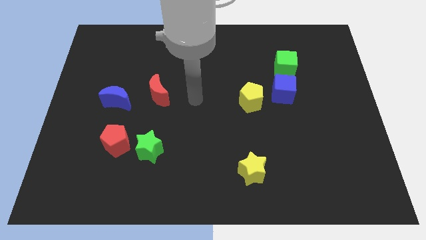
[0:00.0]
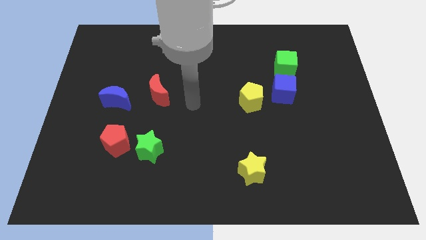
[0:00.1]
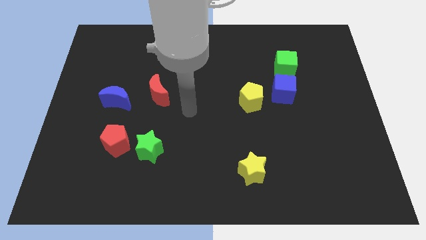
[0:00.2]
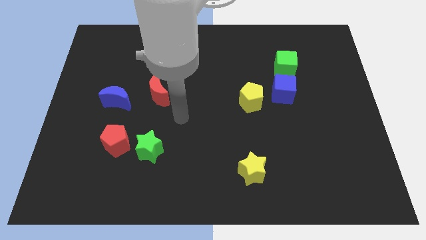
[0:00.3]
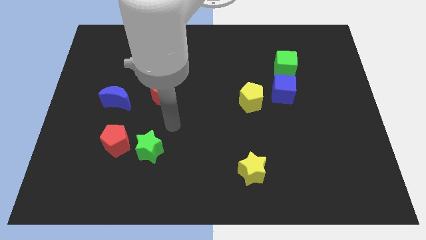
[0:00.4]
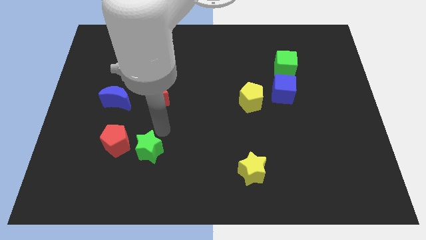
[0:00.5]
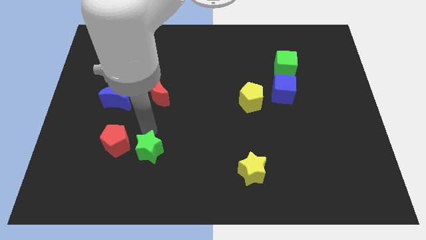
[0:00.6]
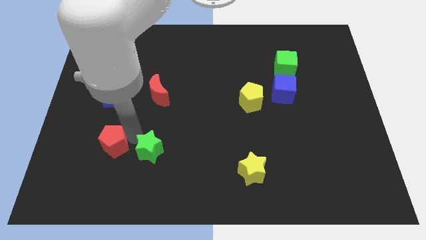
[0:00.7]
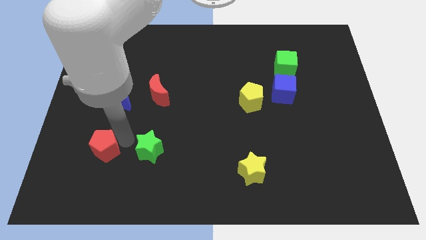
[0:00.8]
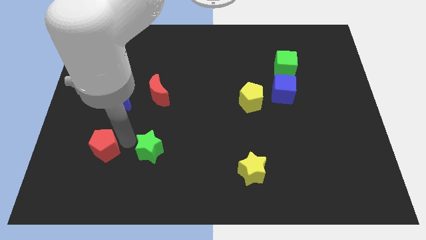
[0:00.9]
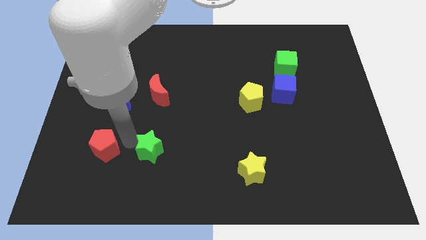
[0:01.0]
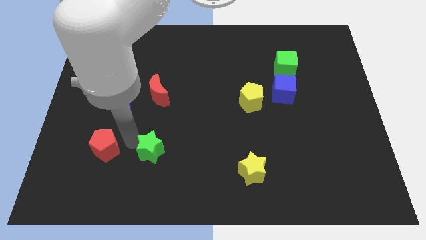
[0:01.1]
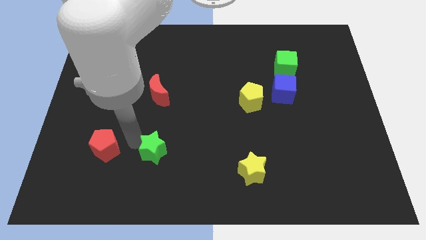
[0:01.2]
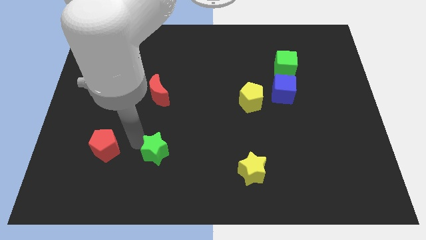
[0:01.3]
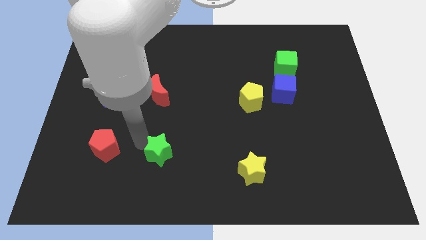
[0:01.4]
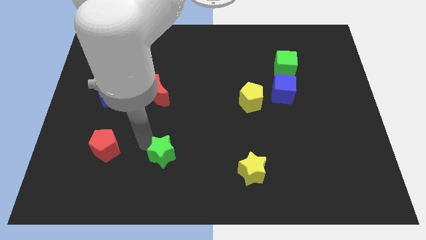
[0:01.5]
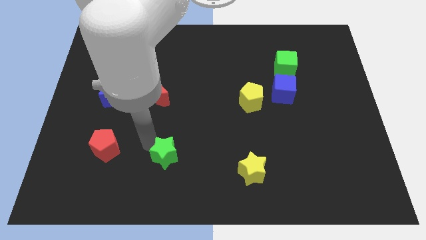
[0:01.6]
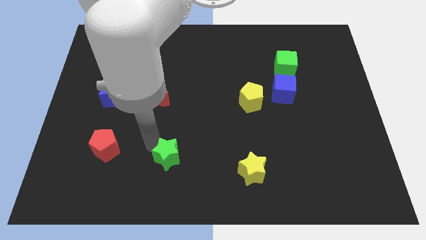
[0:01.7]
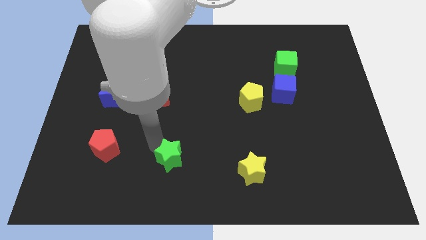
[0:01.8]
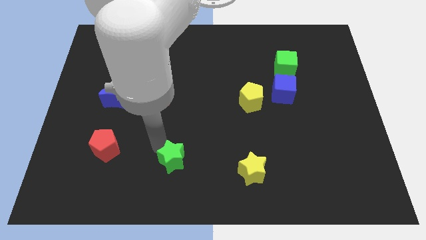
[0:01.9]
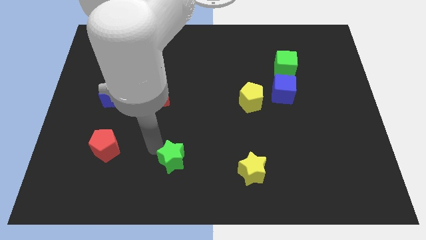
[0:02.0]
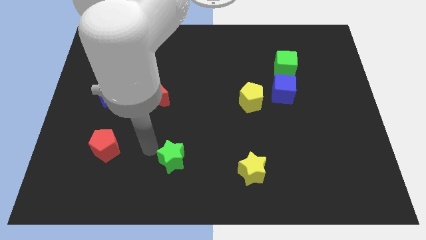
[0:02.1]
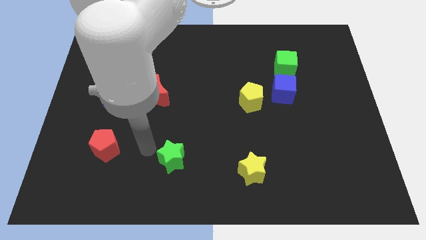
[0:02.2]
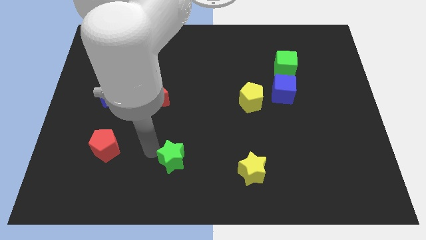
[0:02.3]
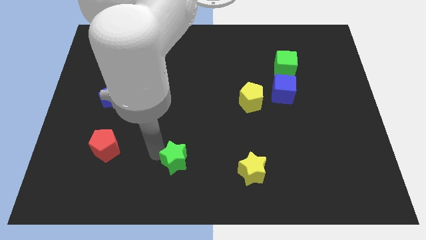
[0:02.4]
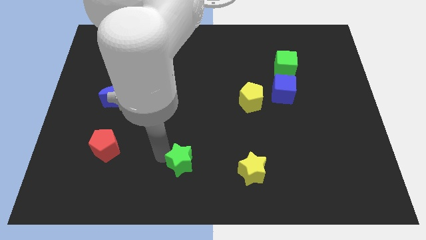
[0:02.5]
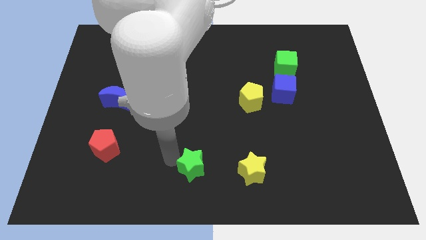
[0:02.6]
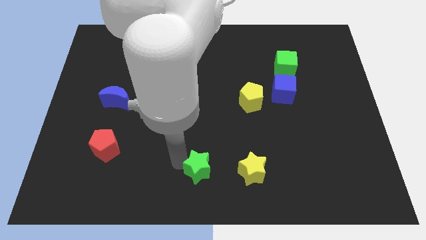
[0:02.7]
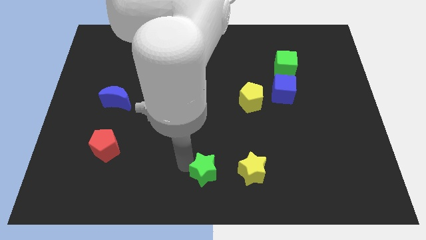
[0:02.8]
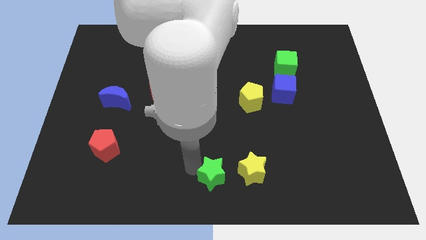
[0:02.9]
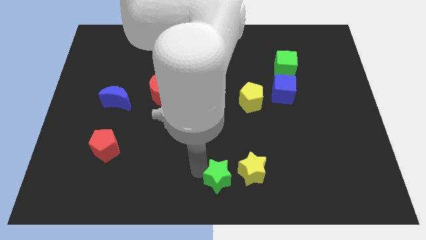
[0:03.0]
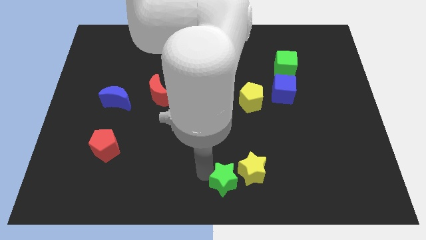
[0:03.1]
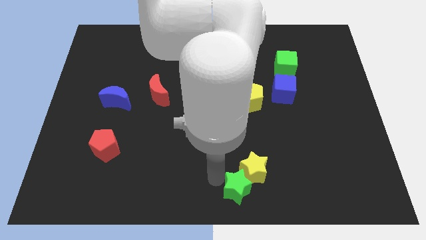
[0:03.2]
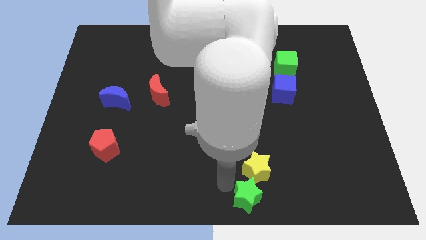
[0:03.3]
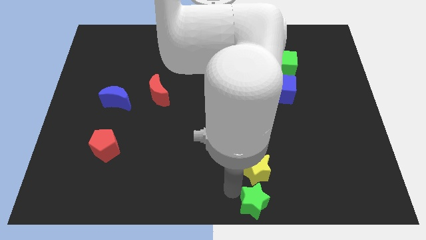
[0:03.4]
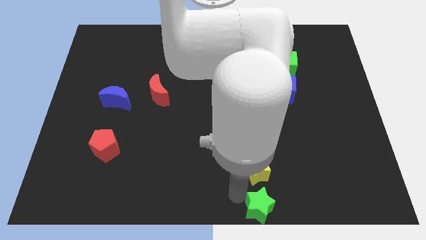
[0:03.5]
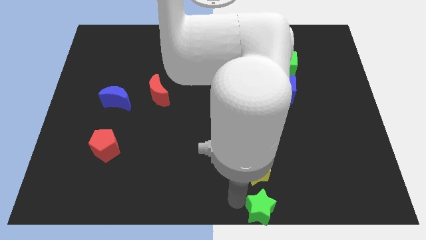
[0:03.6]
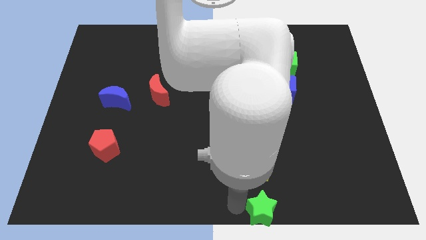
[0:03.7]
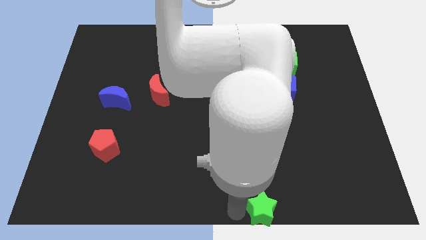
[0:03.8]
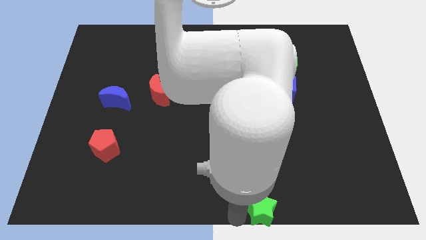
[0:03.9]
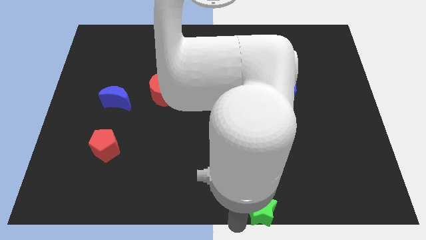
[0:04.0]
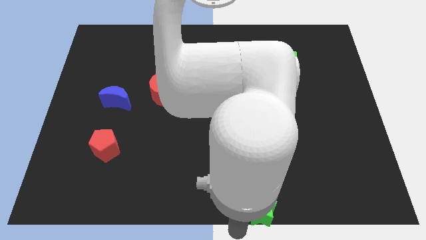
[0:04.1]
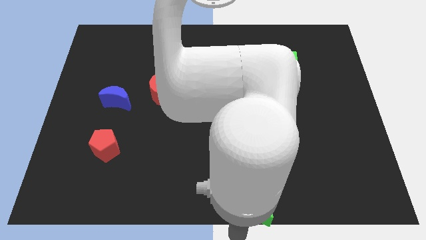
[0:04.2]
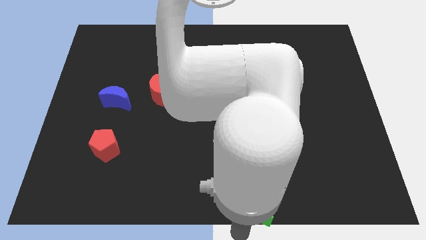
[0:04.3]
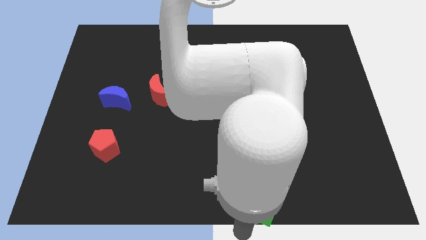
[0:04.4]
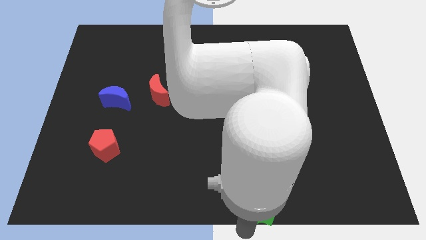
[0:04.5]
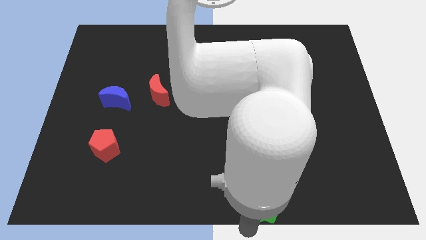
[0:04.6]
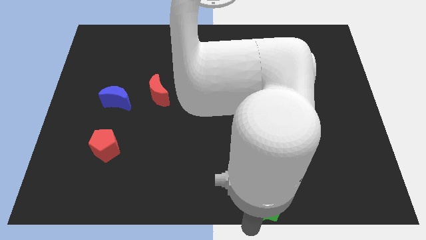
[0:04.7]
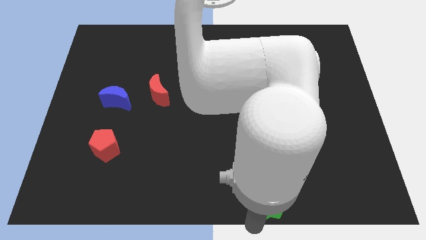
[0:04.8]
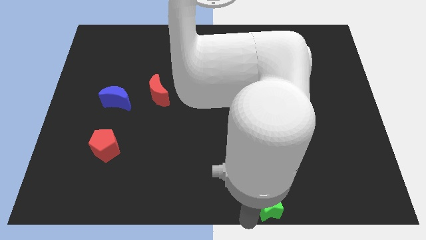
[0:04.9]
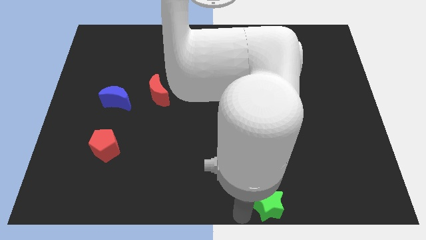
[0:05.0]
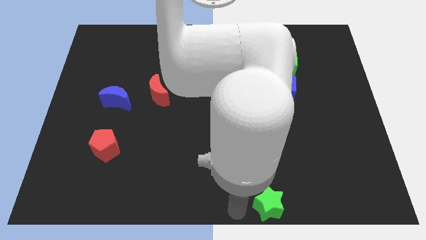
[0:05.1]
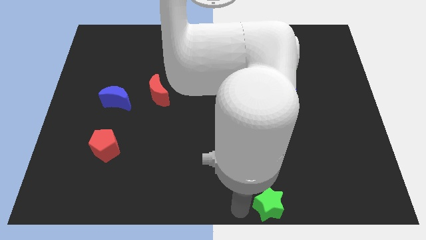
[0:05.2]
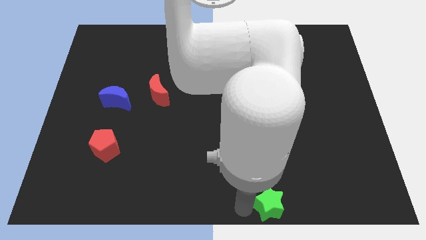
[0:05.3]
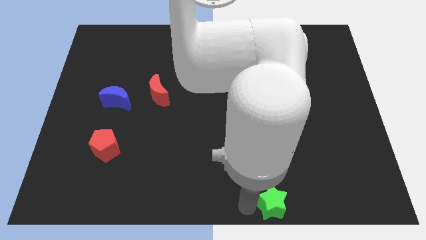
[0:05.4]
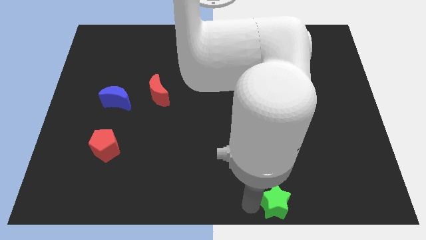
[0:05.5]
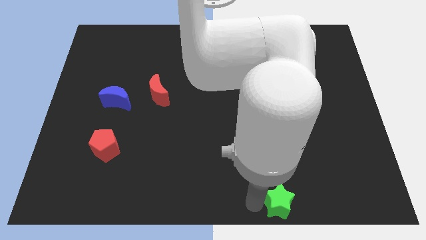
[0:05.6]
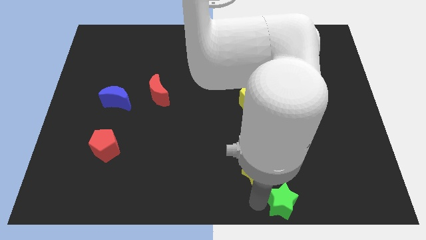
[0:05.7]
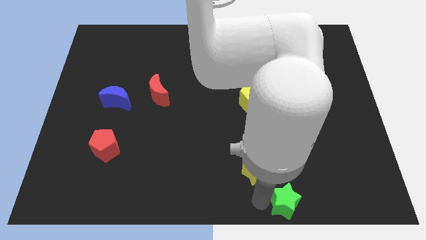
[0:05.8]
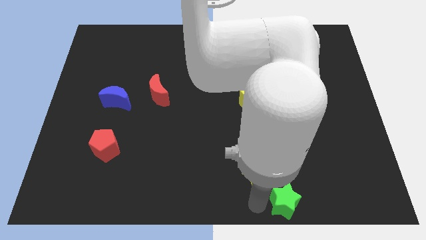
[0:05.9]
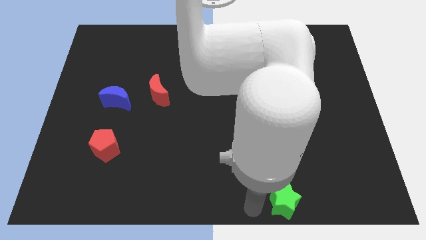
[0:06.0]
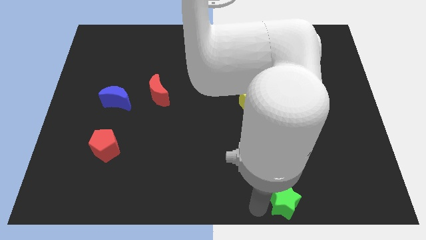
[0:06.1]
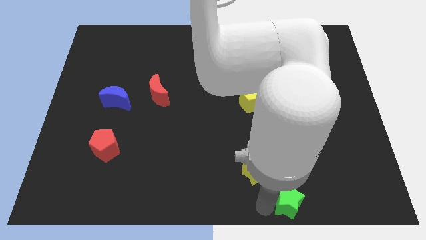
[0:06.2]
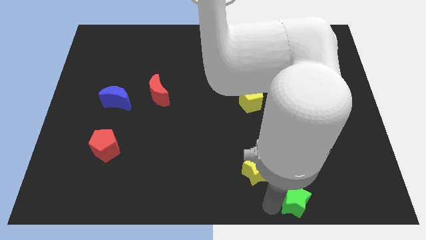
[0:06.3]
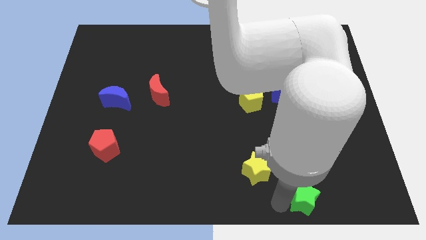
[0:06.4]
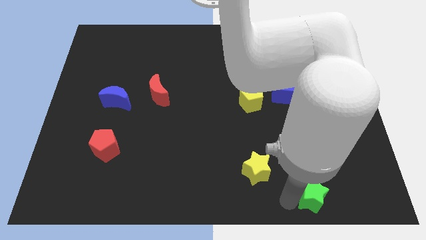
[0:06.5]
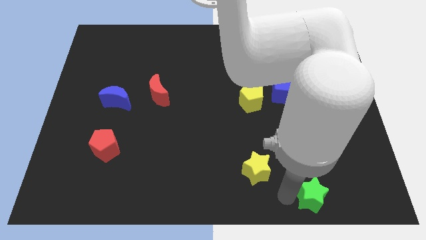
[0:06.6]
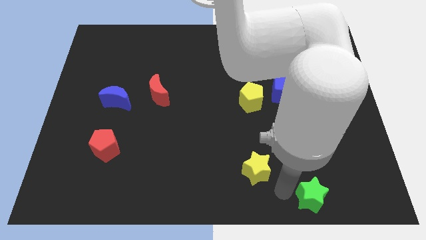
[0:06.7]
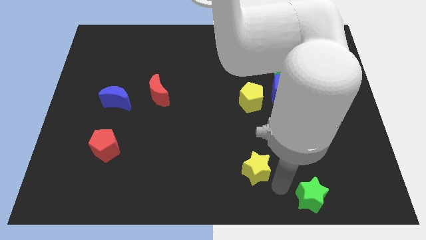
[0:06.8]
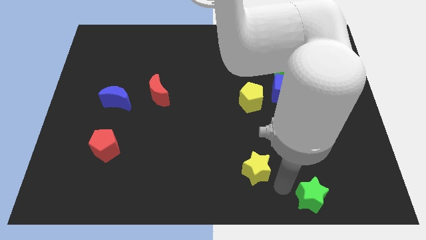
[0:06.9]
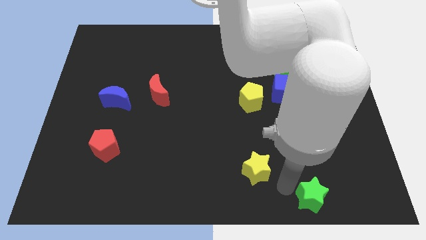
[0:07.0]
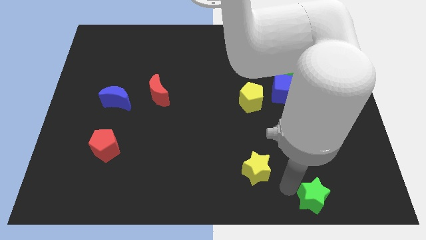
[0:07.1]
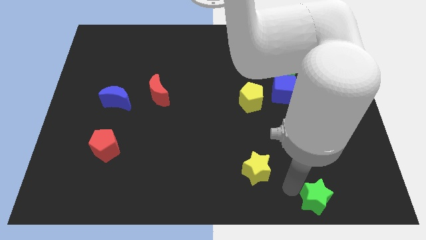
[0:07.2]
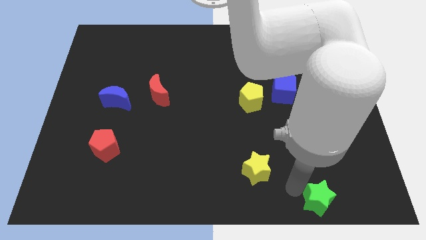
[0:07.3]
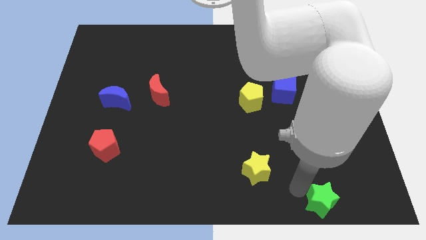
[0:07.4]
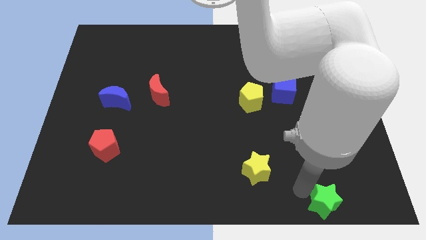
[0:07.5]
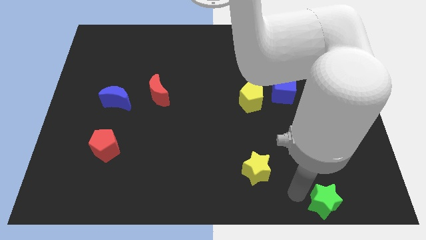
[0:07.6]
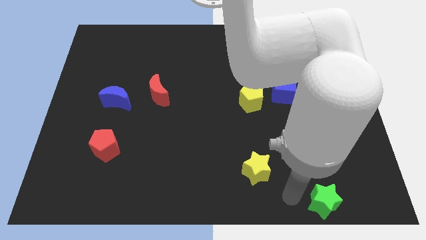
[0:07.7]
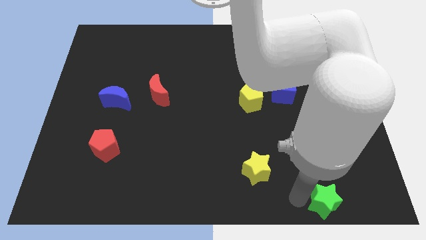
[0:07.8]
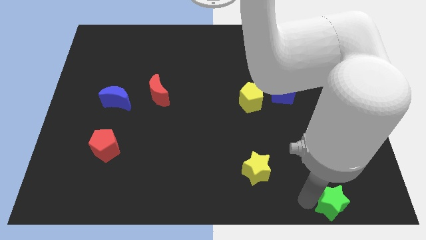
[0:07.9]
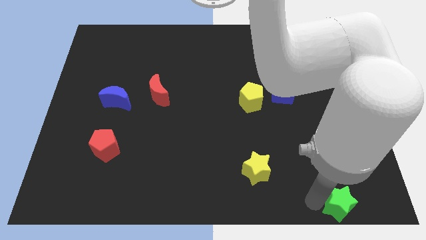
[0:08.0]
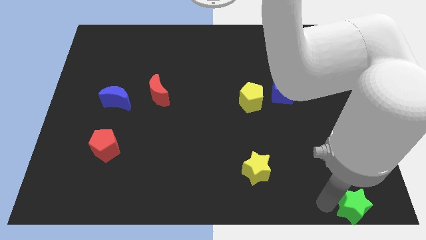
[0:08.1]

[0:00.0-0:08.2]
slide the green star to the lower right corner
